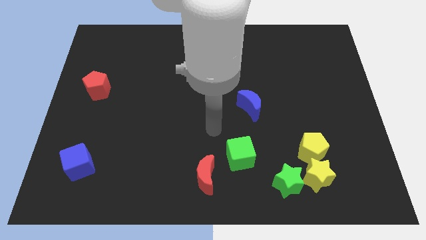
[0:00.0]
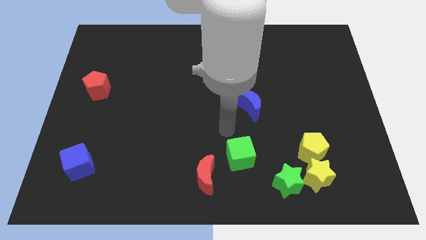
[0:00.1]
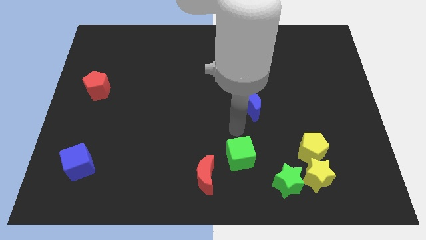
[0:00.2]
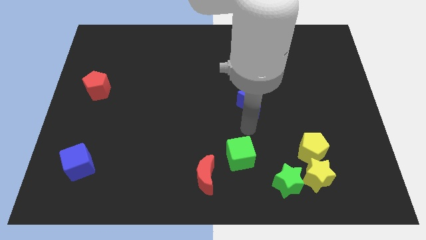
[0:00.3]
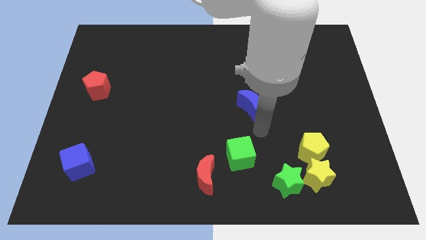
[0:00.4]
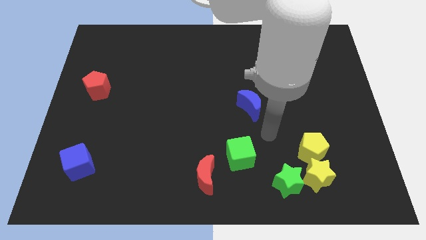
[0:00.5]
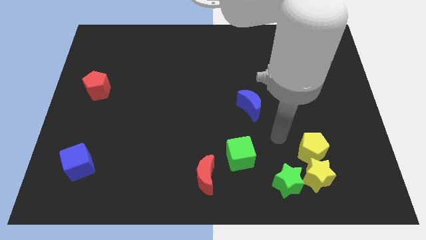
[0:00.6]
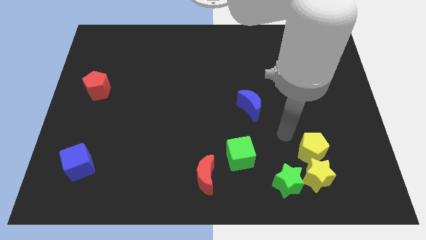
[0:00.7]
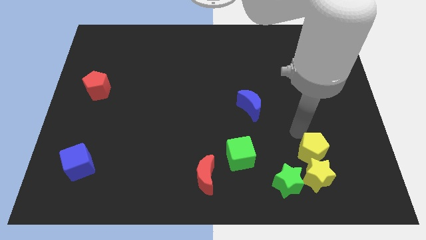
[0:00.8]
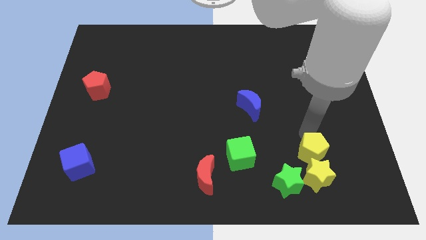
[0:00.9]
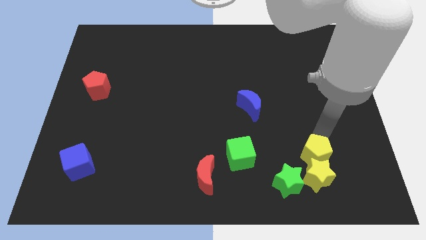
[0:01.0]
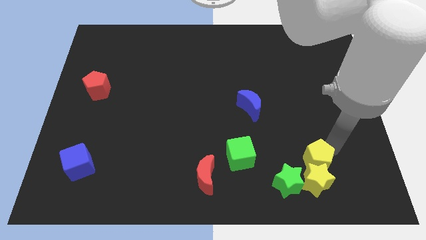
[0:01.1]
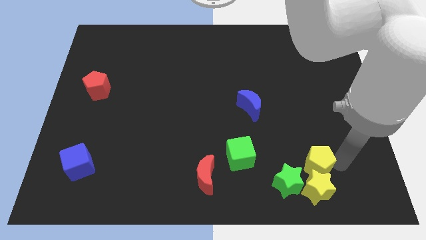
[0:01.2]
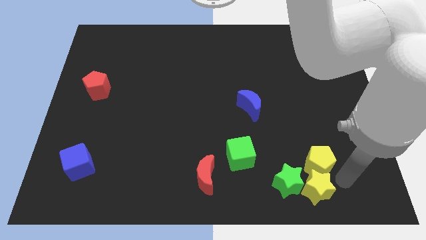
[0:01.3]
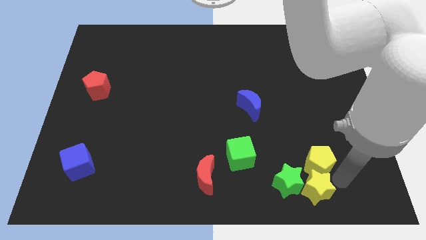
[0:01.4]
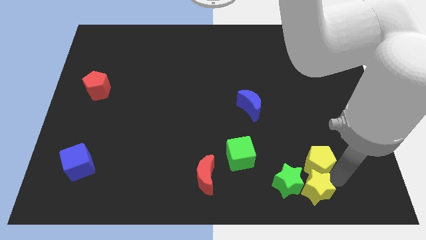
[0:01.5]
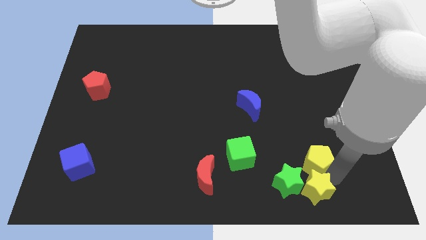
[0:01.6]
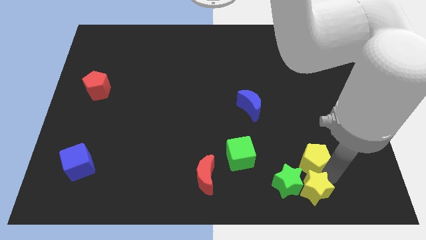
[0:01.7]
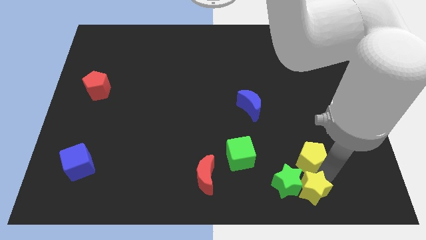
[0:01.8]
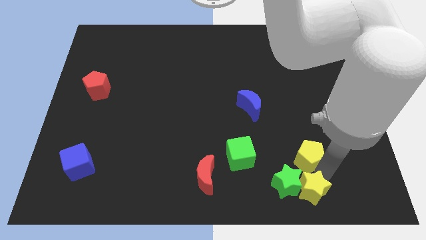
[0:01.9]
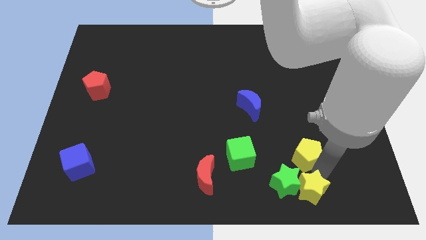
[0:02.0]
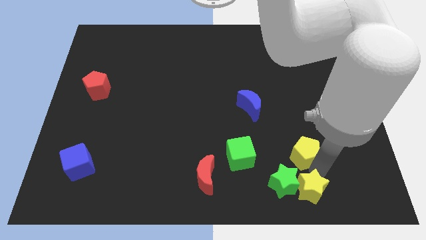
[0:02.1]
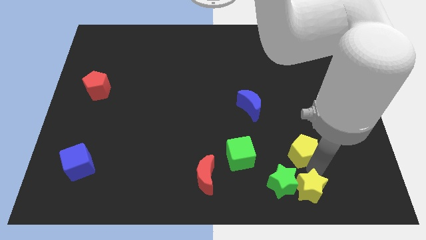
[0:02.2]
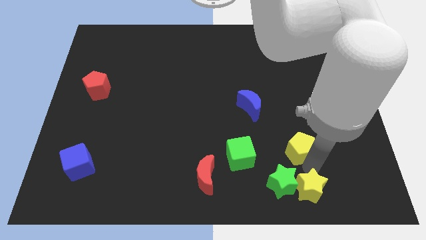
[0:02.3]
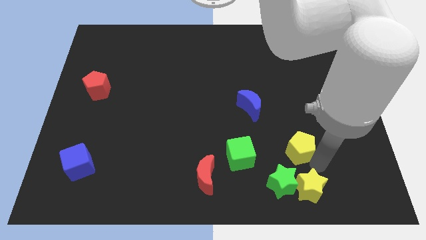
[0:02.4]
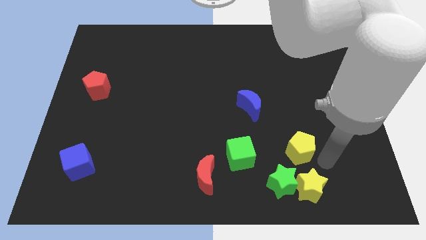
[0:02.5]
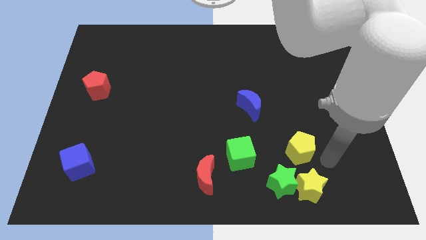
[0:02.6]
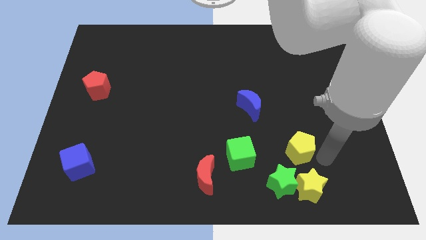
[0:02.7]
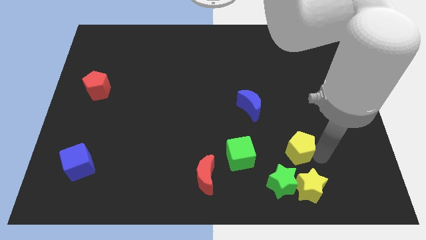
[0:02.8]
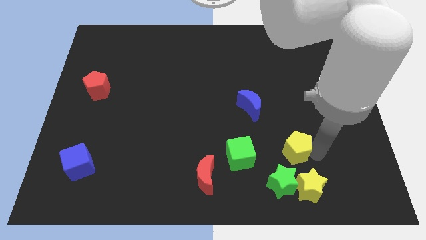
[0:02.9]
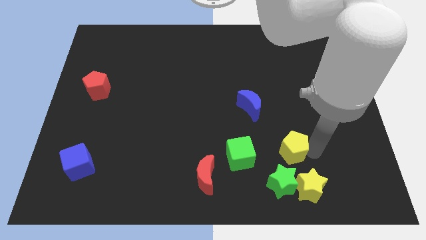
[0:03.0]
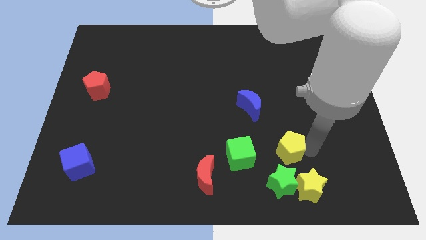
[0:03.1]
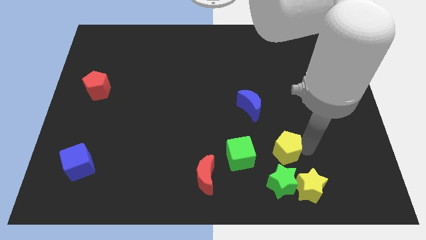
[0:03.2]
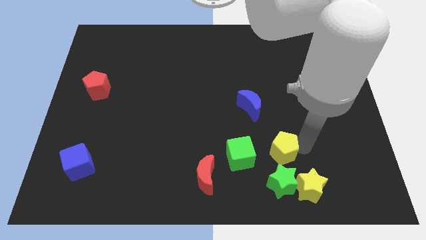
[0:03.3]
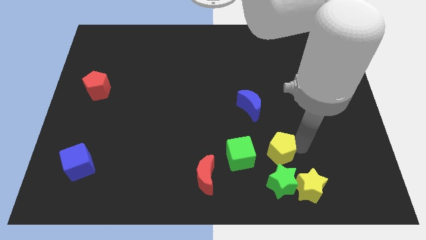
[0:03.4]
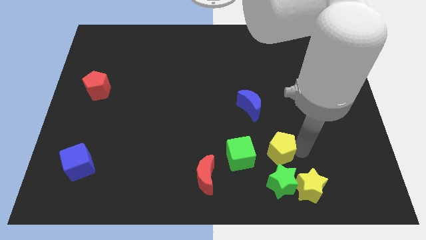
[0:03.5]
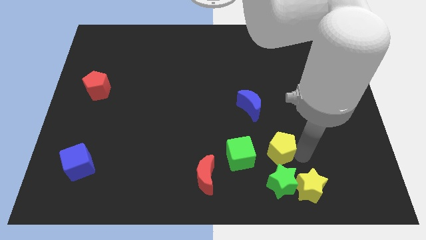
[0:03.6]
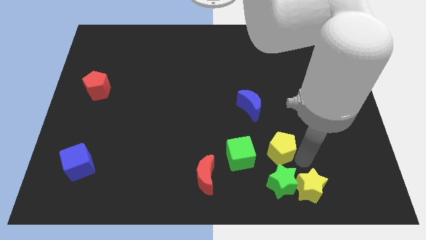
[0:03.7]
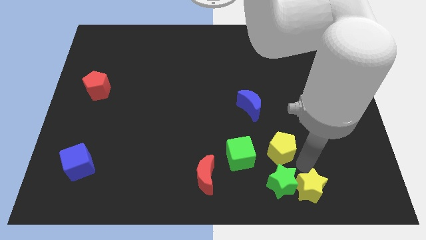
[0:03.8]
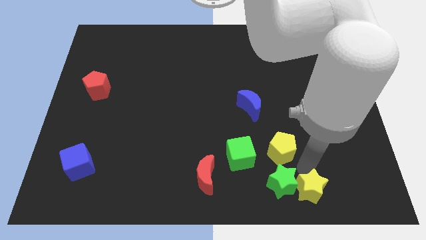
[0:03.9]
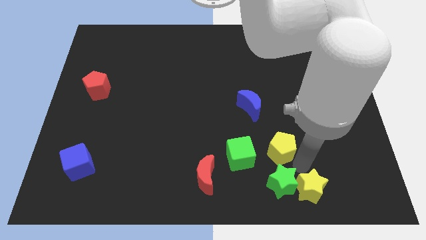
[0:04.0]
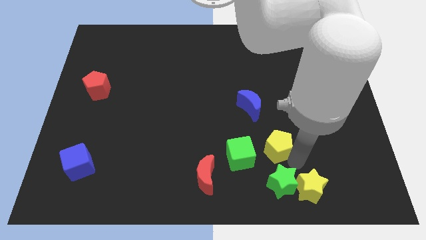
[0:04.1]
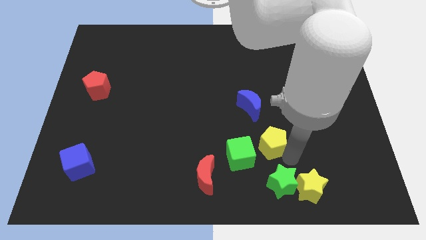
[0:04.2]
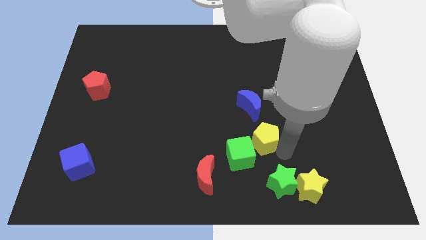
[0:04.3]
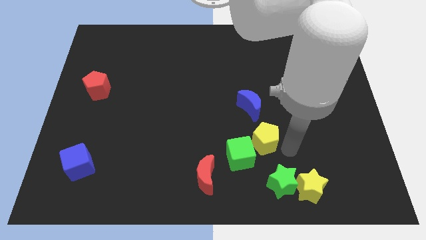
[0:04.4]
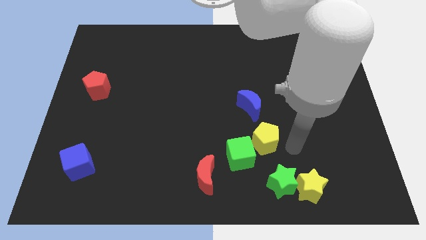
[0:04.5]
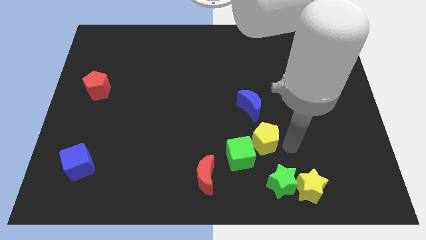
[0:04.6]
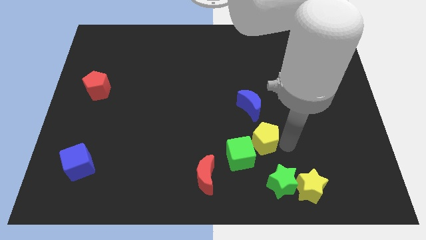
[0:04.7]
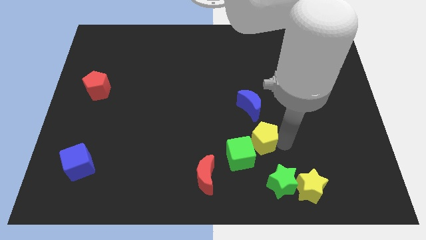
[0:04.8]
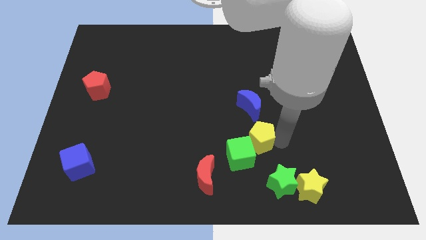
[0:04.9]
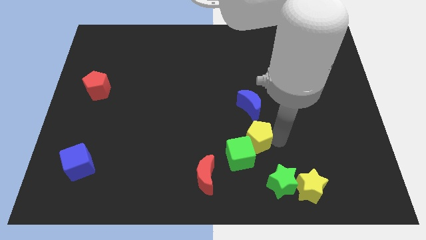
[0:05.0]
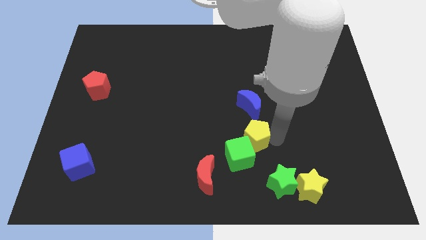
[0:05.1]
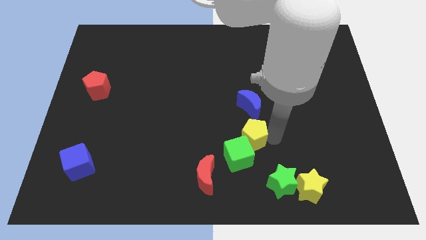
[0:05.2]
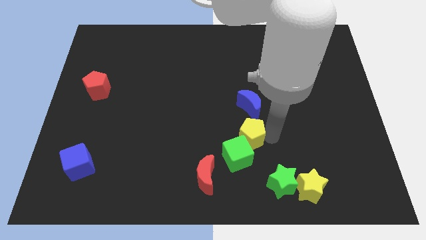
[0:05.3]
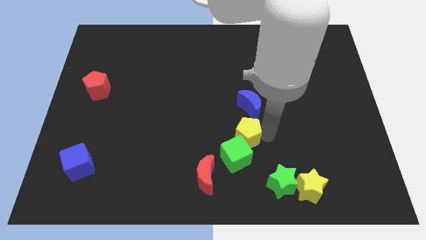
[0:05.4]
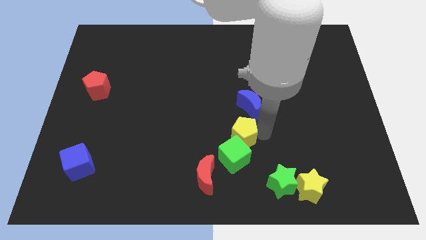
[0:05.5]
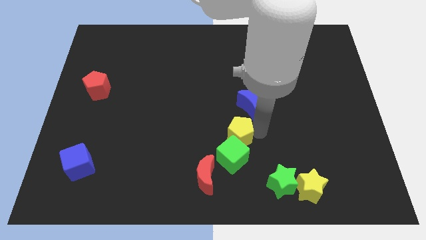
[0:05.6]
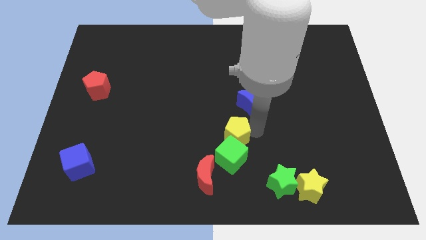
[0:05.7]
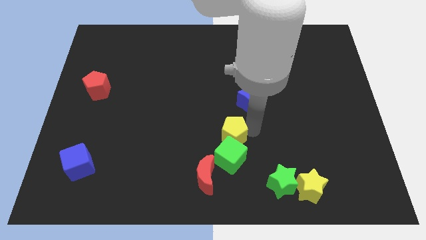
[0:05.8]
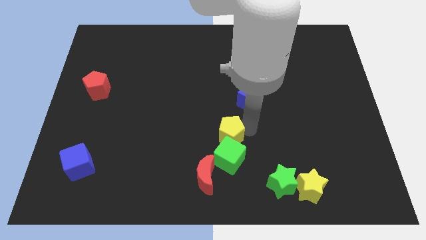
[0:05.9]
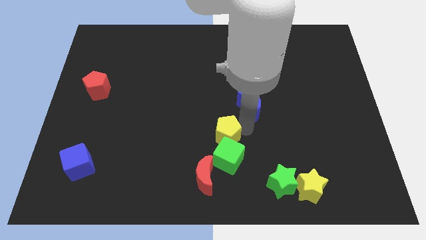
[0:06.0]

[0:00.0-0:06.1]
move the yellow pentagon above the red moon

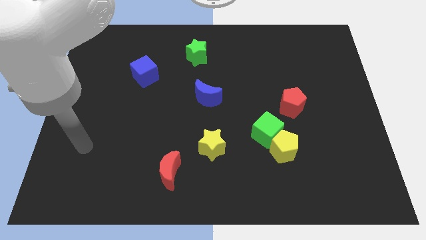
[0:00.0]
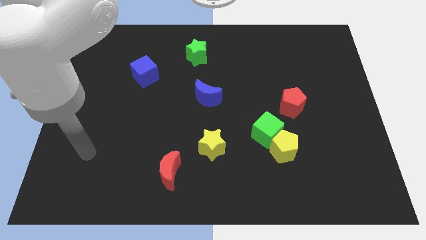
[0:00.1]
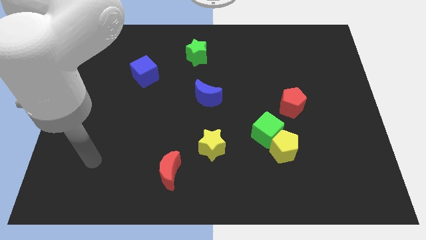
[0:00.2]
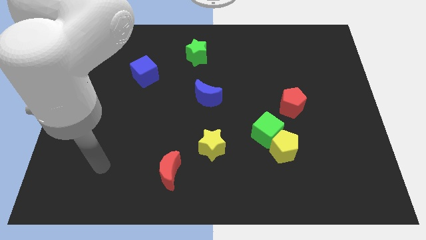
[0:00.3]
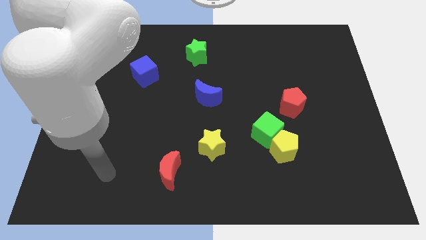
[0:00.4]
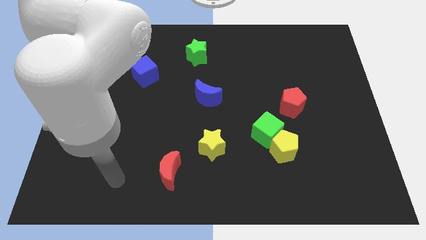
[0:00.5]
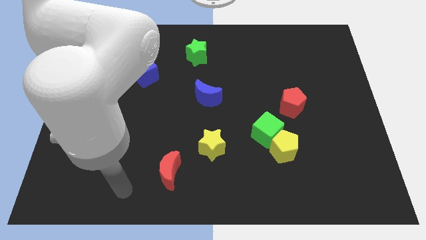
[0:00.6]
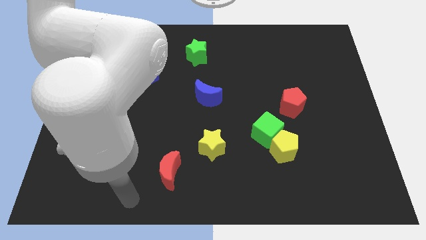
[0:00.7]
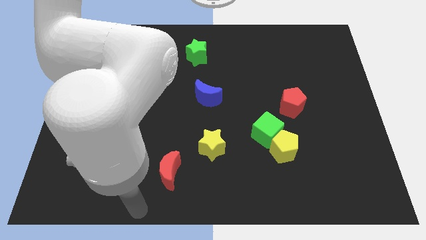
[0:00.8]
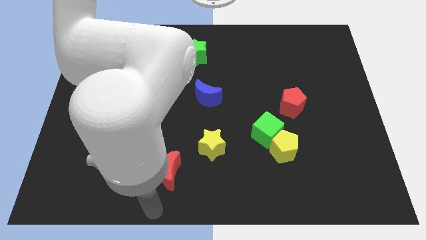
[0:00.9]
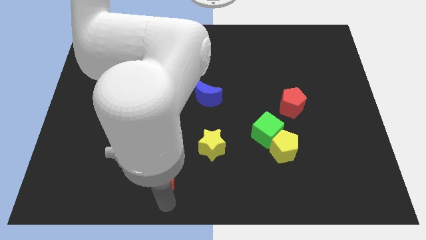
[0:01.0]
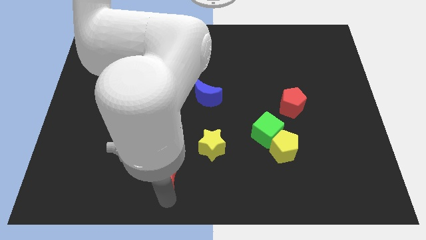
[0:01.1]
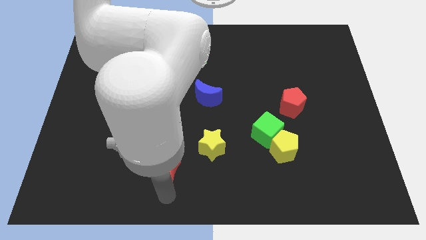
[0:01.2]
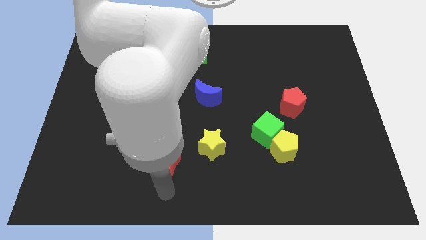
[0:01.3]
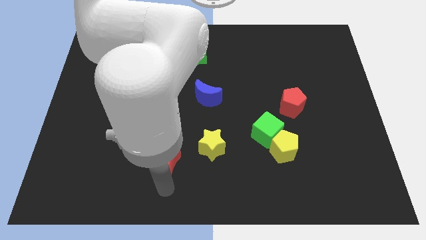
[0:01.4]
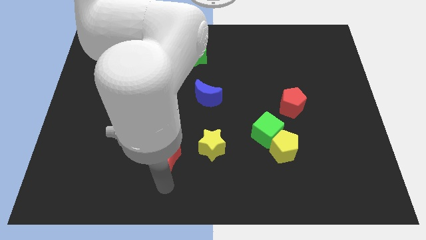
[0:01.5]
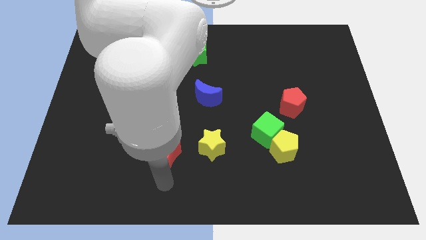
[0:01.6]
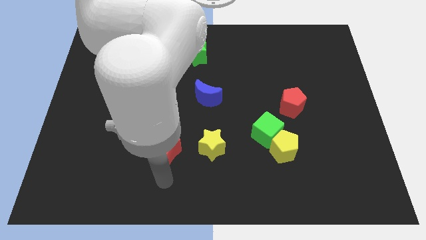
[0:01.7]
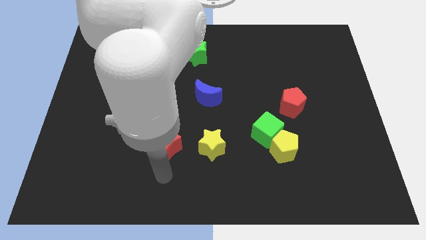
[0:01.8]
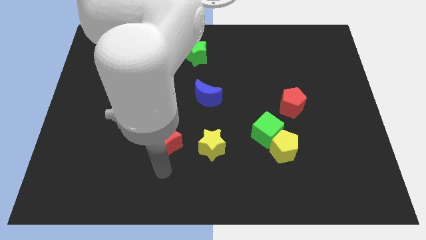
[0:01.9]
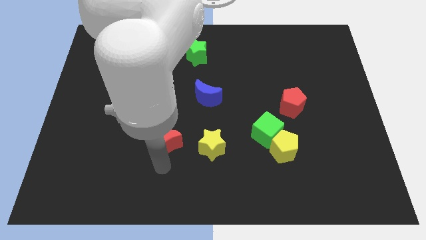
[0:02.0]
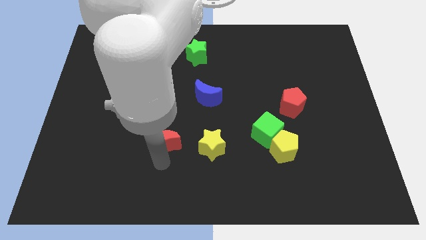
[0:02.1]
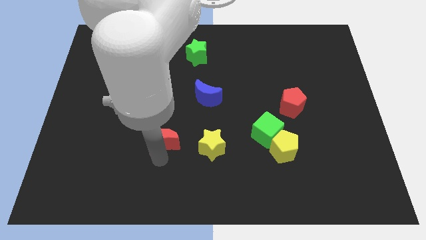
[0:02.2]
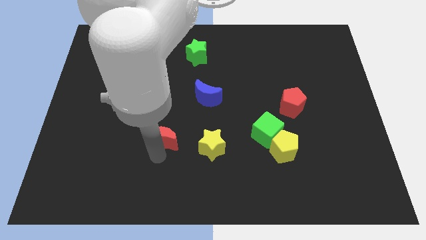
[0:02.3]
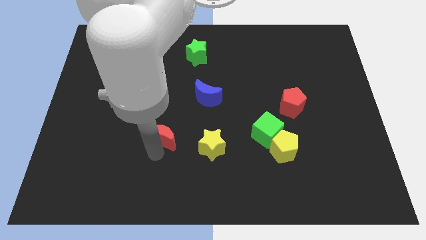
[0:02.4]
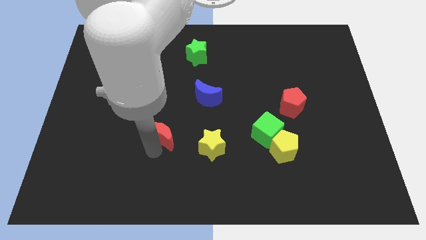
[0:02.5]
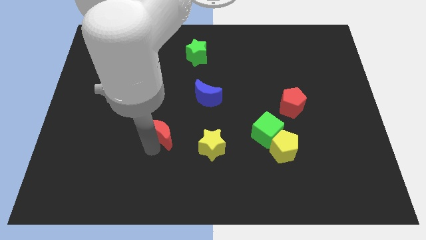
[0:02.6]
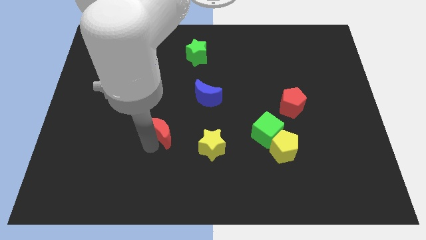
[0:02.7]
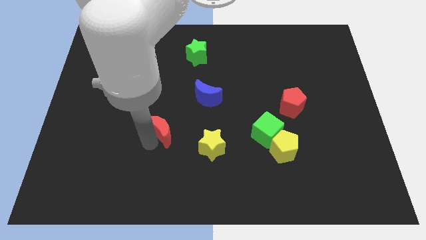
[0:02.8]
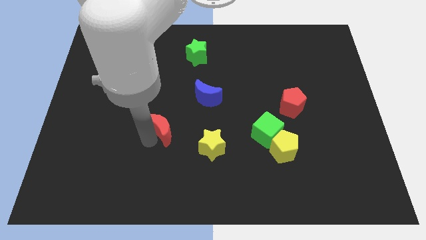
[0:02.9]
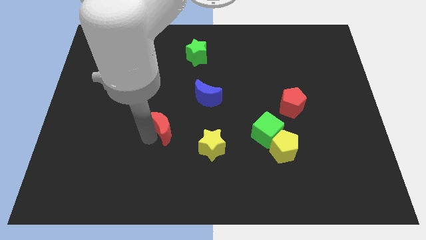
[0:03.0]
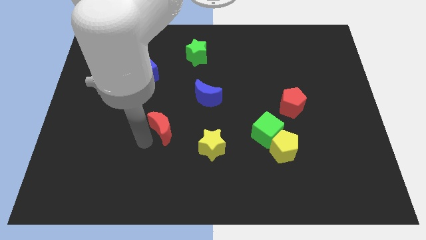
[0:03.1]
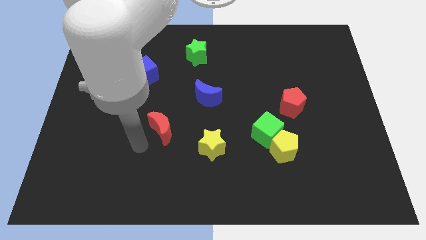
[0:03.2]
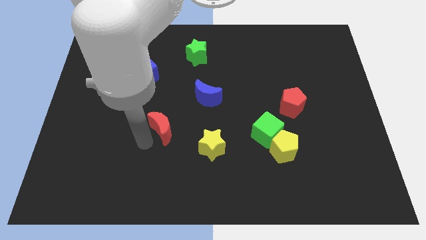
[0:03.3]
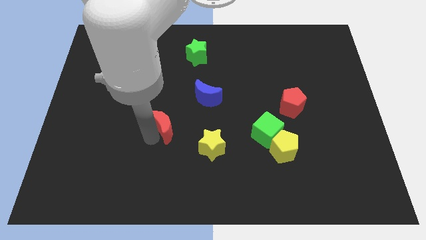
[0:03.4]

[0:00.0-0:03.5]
move the red moon to the bottom left side of the blue moon
